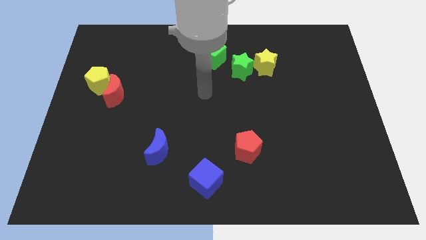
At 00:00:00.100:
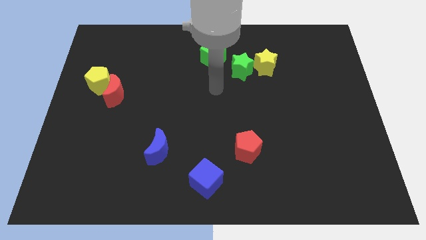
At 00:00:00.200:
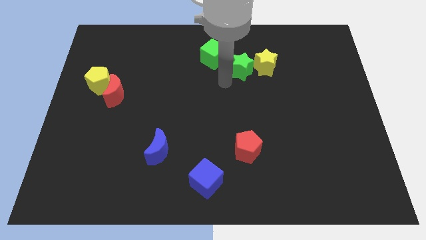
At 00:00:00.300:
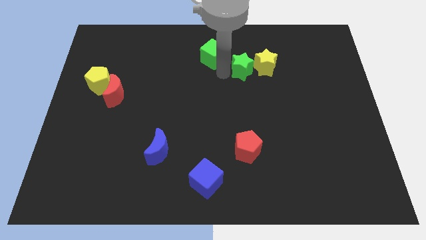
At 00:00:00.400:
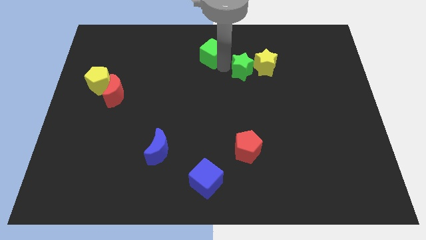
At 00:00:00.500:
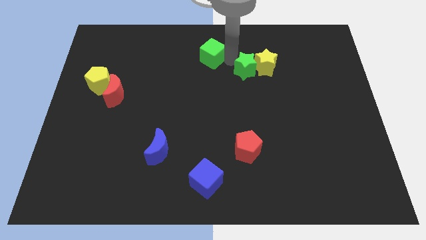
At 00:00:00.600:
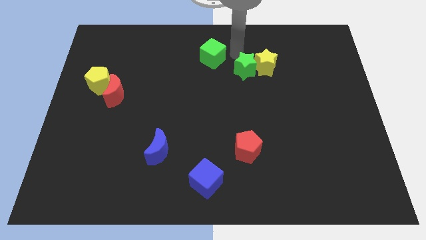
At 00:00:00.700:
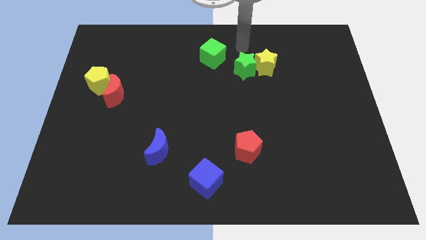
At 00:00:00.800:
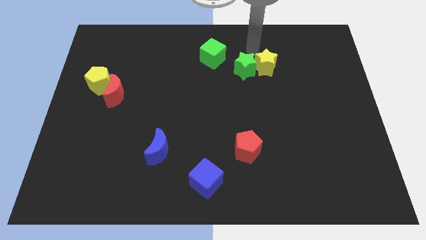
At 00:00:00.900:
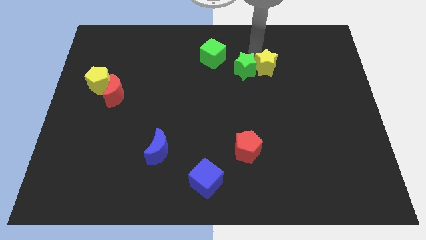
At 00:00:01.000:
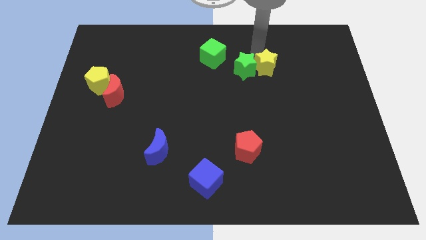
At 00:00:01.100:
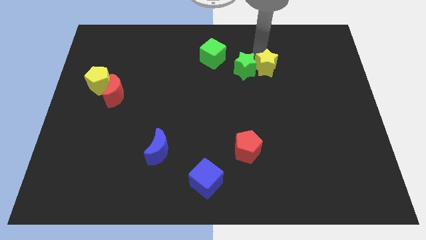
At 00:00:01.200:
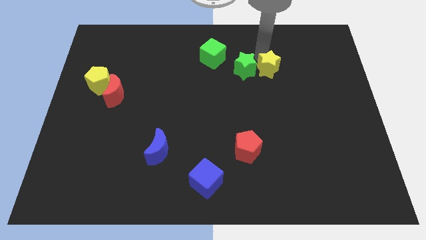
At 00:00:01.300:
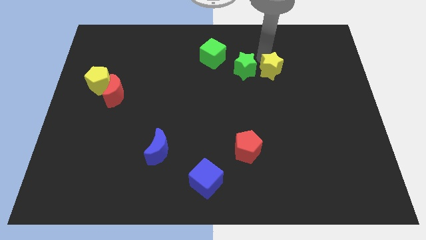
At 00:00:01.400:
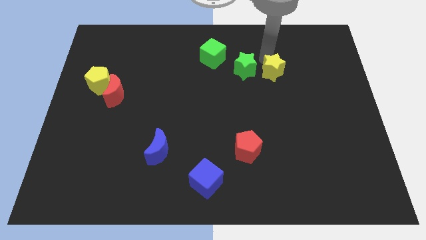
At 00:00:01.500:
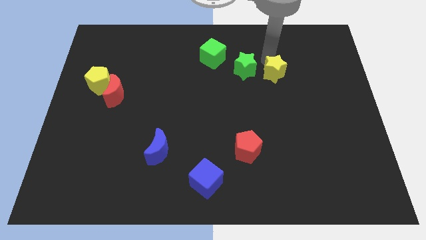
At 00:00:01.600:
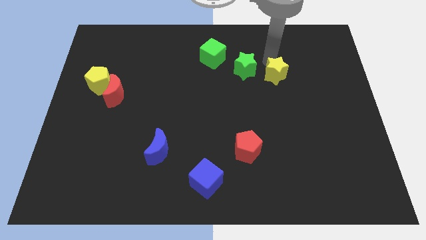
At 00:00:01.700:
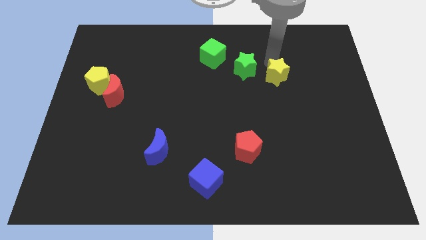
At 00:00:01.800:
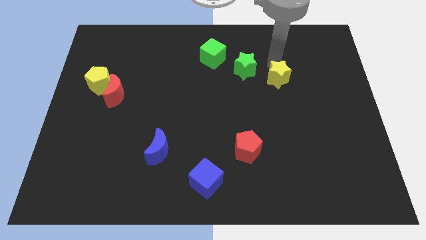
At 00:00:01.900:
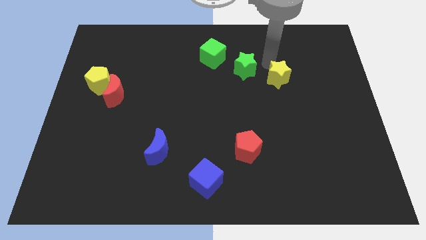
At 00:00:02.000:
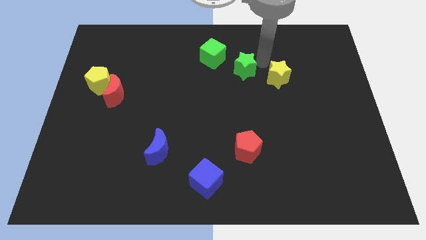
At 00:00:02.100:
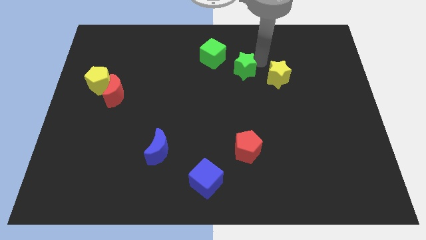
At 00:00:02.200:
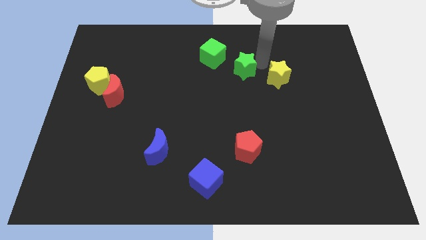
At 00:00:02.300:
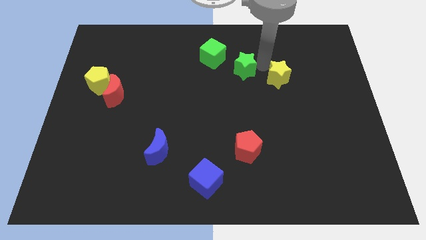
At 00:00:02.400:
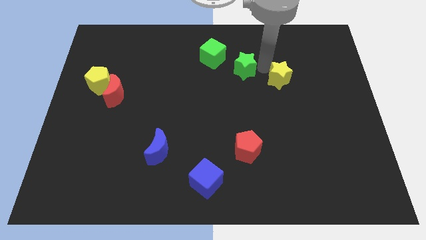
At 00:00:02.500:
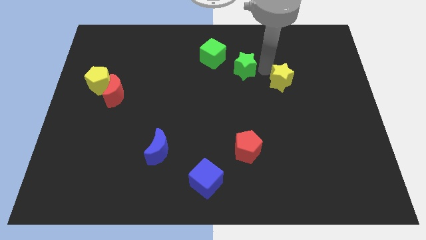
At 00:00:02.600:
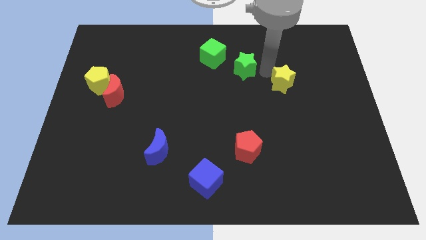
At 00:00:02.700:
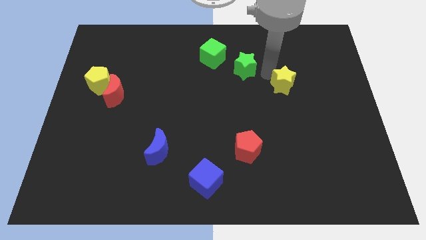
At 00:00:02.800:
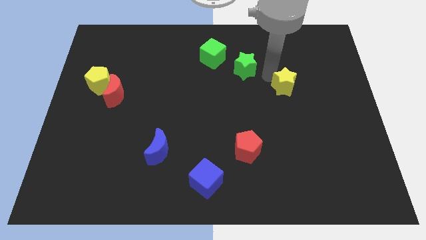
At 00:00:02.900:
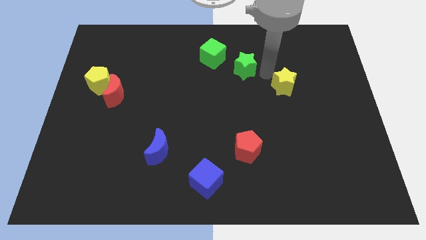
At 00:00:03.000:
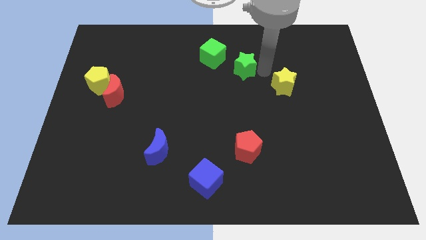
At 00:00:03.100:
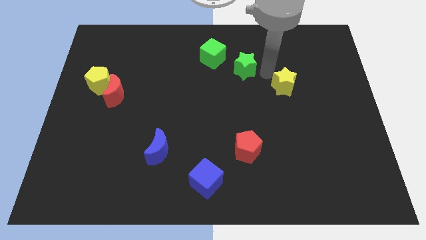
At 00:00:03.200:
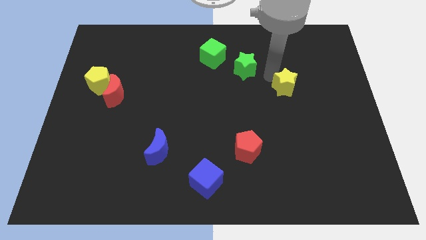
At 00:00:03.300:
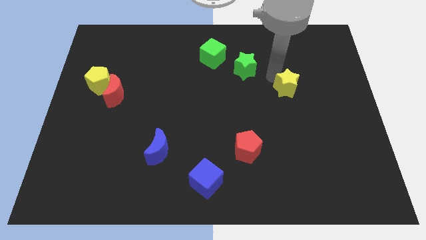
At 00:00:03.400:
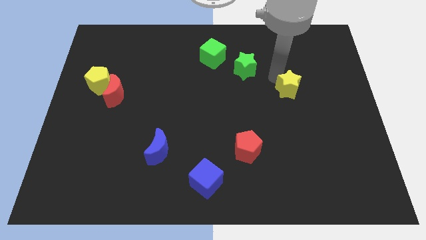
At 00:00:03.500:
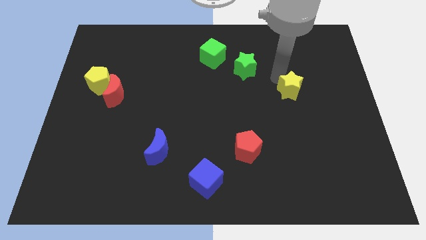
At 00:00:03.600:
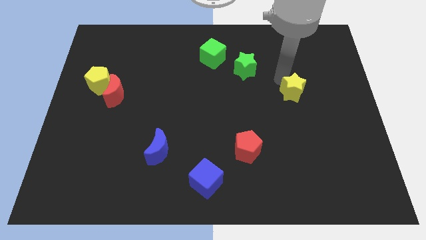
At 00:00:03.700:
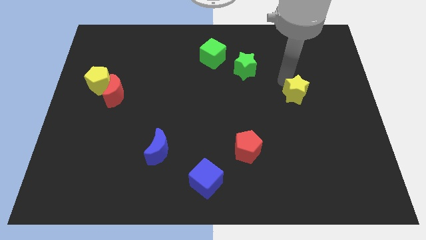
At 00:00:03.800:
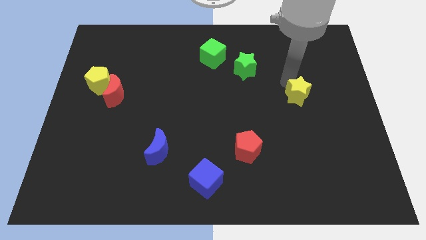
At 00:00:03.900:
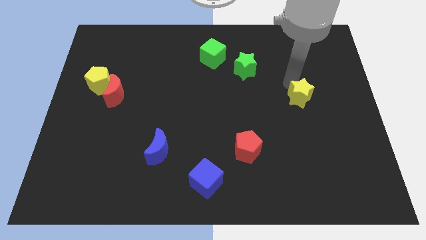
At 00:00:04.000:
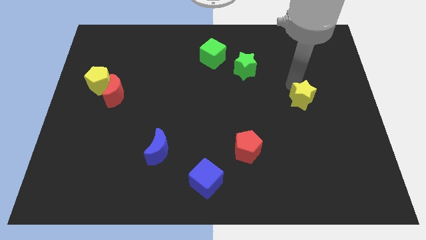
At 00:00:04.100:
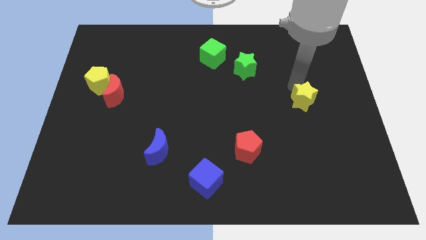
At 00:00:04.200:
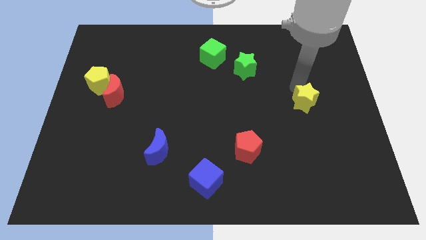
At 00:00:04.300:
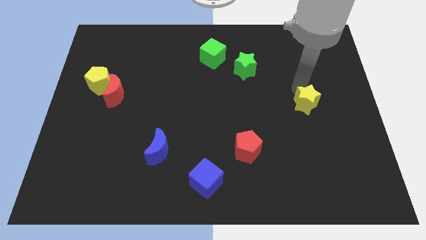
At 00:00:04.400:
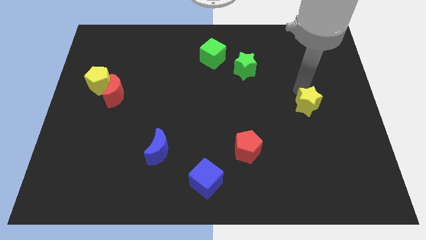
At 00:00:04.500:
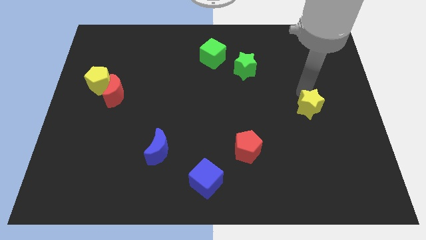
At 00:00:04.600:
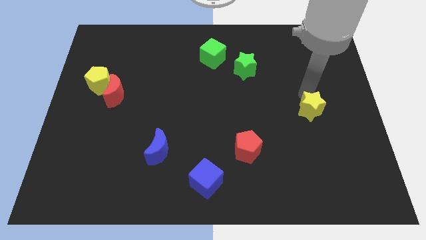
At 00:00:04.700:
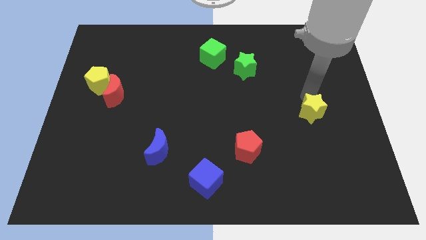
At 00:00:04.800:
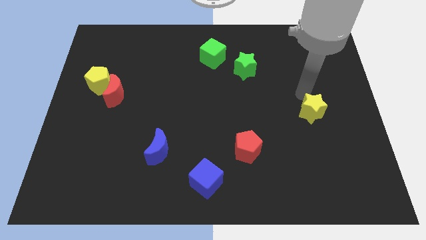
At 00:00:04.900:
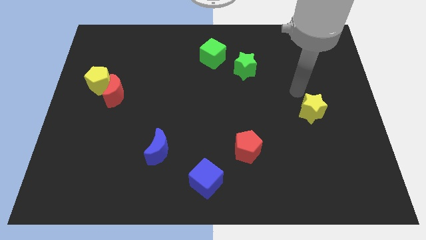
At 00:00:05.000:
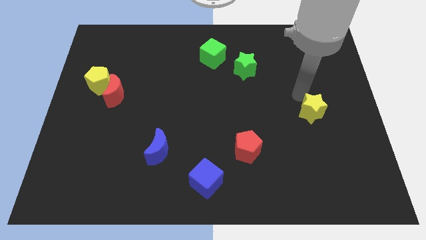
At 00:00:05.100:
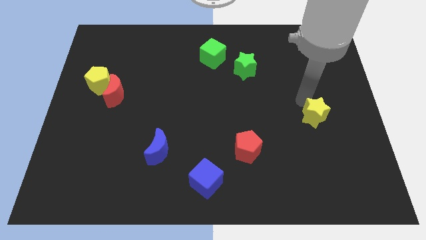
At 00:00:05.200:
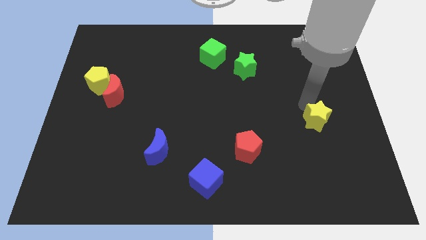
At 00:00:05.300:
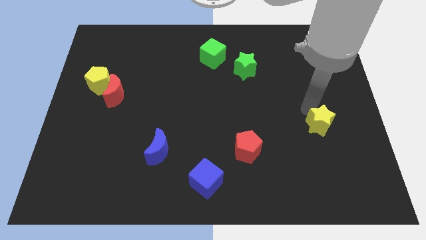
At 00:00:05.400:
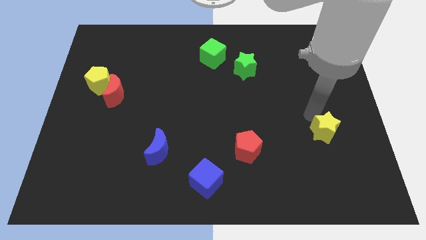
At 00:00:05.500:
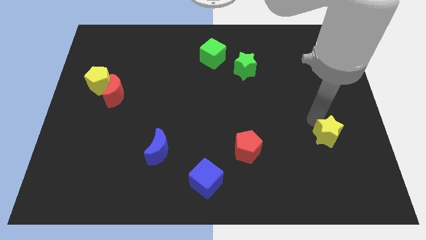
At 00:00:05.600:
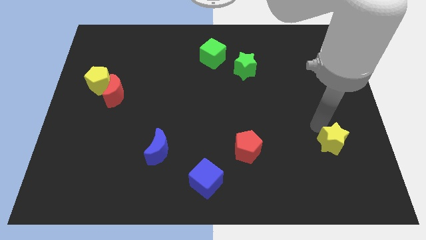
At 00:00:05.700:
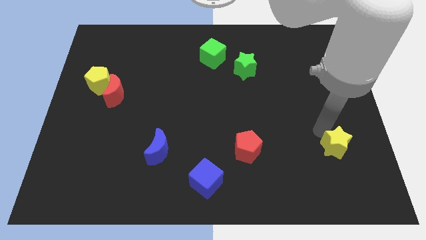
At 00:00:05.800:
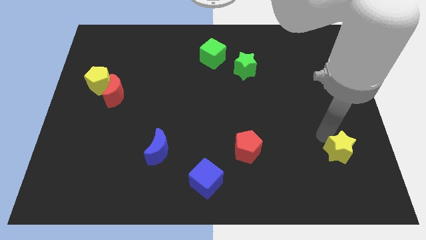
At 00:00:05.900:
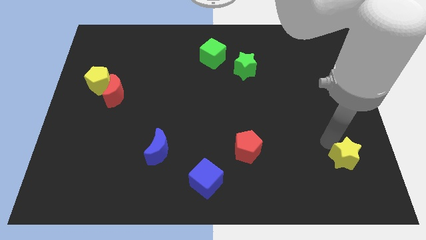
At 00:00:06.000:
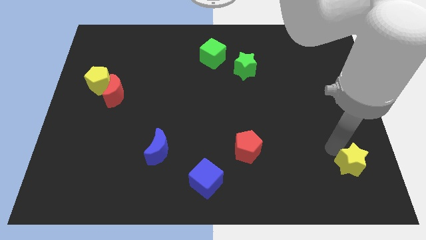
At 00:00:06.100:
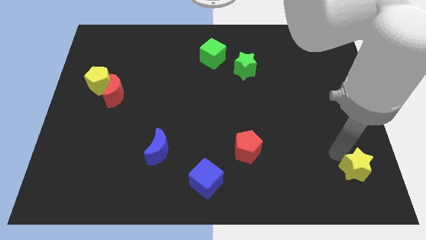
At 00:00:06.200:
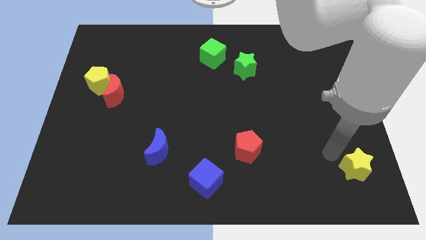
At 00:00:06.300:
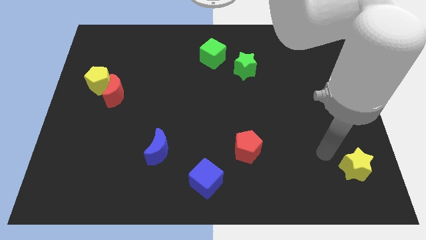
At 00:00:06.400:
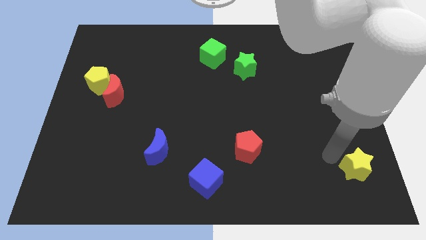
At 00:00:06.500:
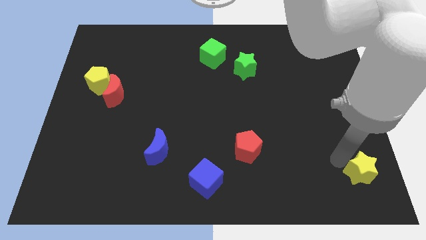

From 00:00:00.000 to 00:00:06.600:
slide the yellow star to the bottom right of the board

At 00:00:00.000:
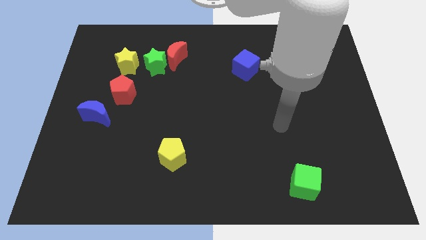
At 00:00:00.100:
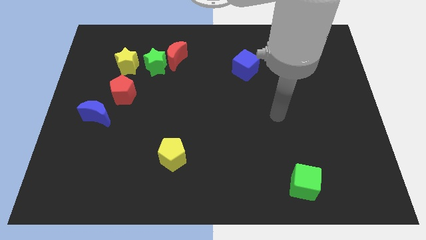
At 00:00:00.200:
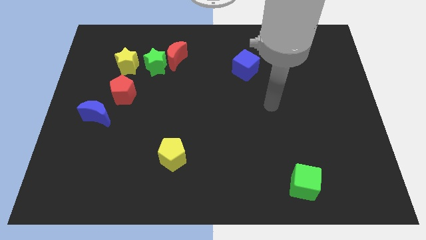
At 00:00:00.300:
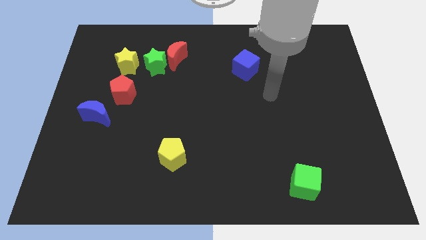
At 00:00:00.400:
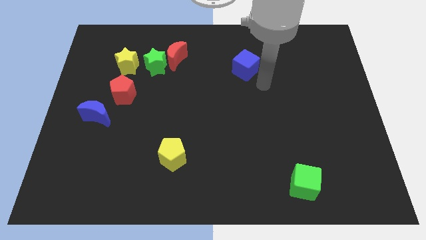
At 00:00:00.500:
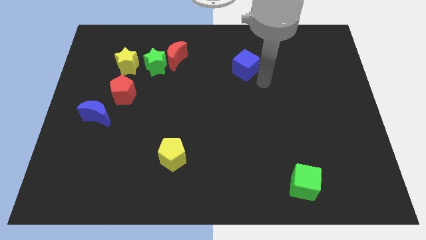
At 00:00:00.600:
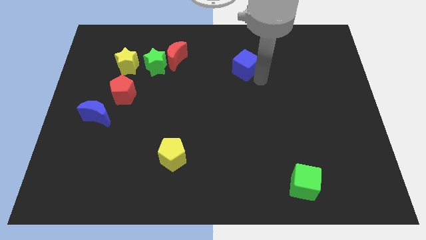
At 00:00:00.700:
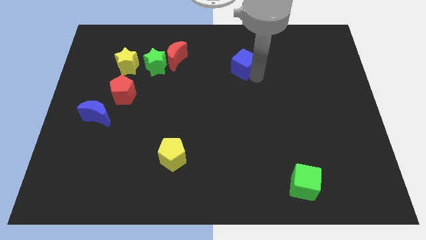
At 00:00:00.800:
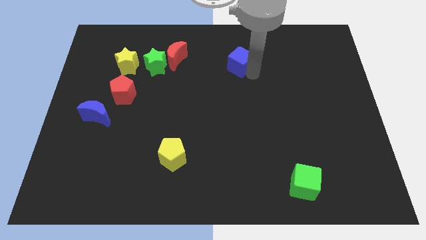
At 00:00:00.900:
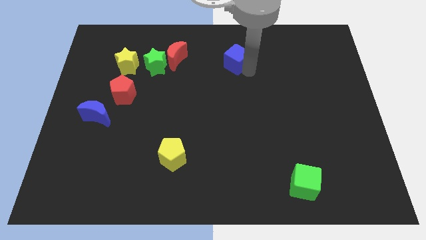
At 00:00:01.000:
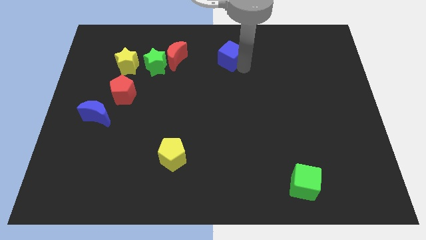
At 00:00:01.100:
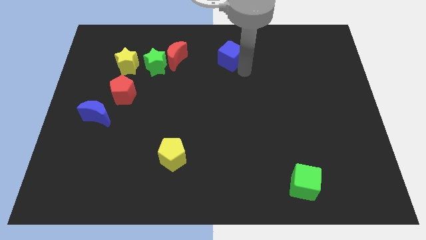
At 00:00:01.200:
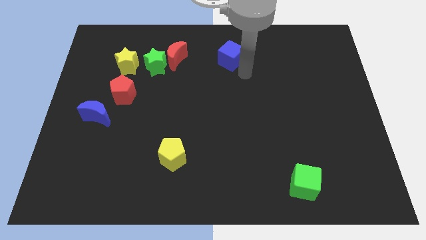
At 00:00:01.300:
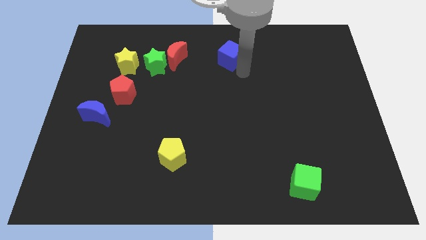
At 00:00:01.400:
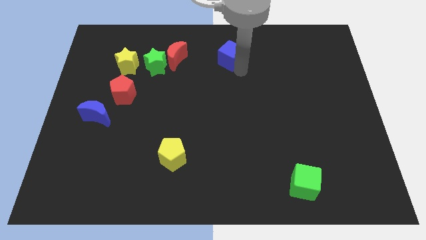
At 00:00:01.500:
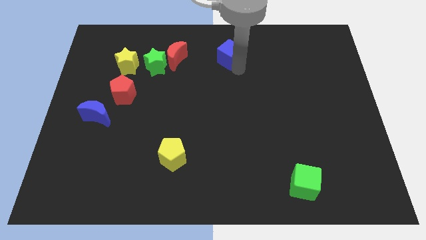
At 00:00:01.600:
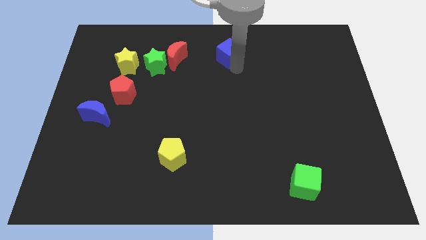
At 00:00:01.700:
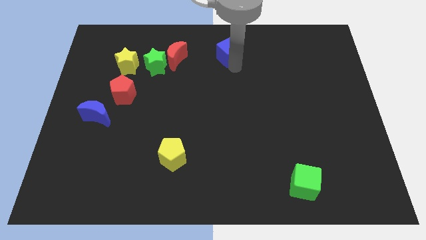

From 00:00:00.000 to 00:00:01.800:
put the blue cube to the towards your base
